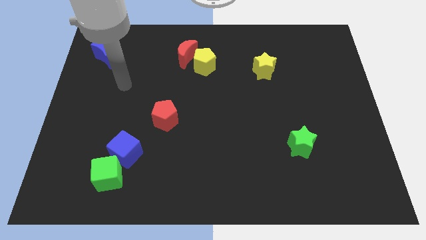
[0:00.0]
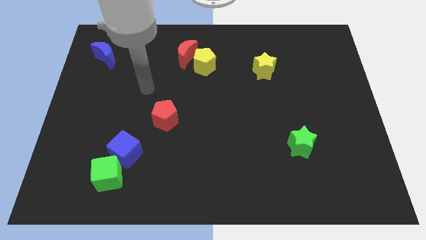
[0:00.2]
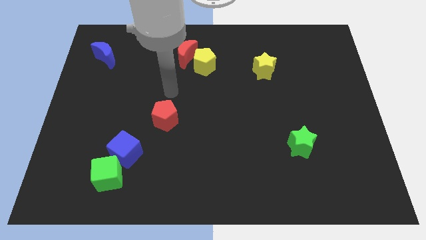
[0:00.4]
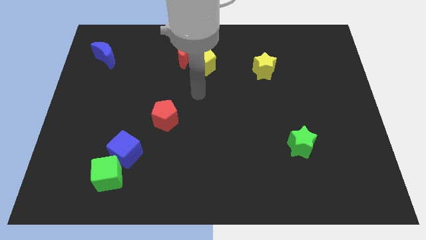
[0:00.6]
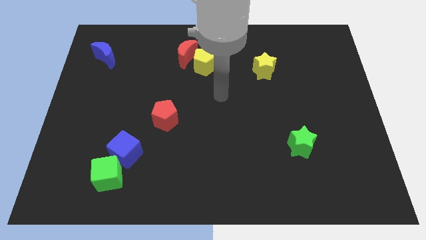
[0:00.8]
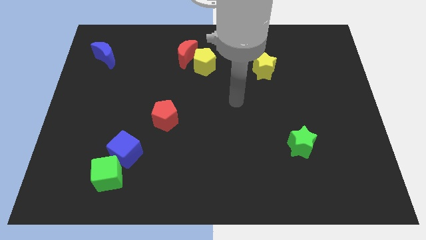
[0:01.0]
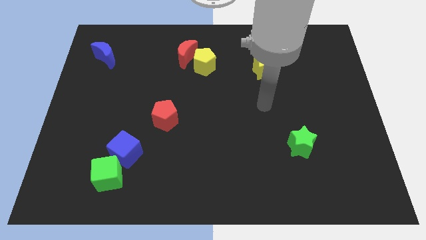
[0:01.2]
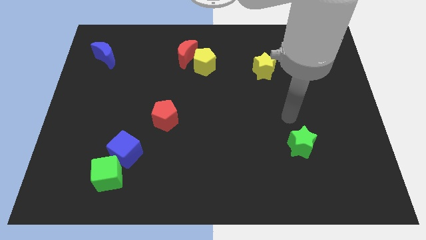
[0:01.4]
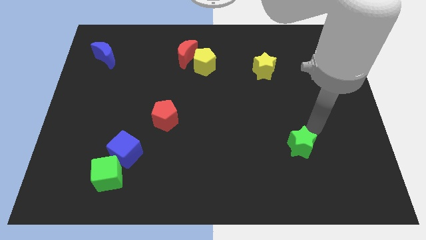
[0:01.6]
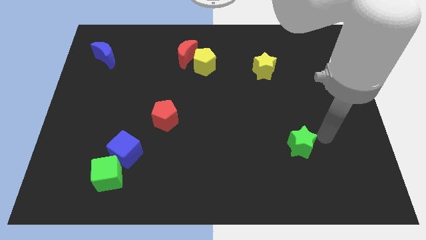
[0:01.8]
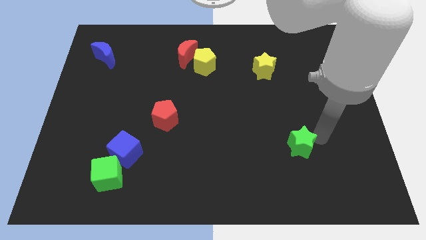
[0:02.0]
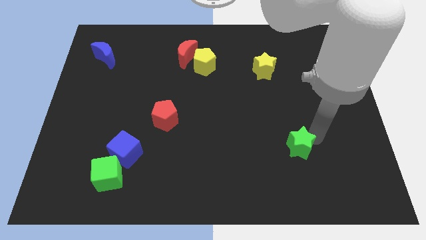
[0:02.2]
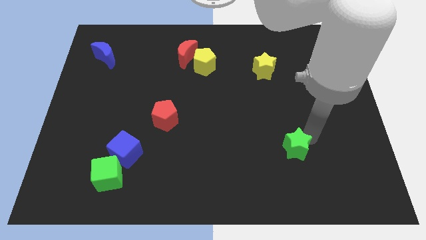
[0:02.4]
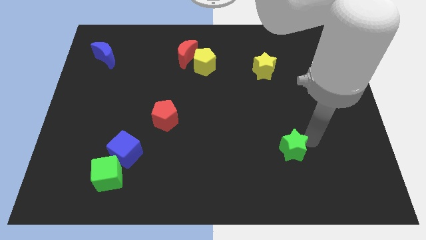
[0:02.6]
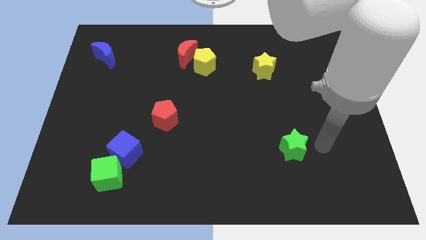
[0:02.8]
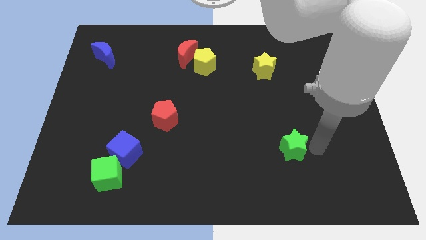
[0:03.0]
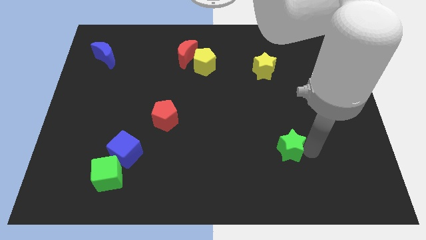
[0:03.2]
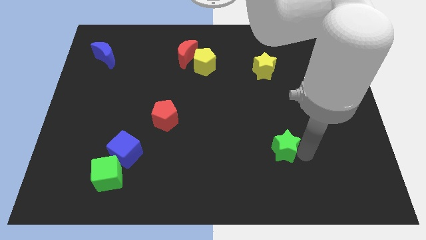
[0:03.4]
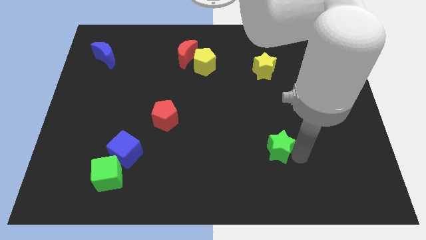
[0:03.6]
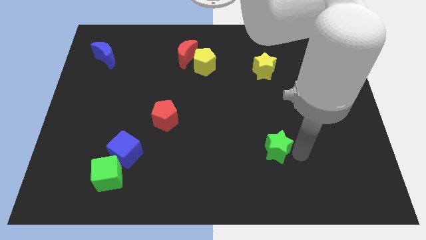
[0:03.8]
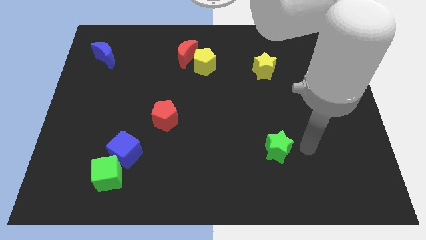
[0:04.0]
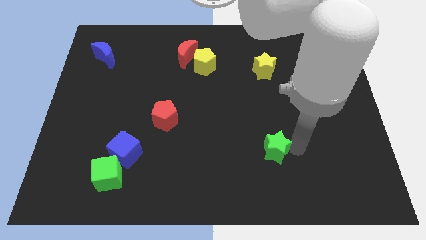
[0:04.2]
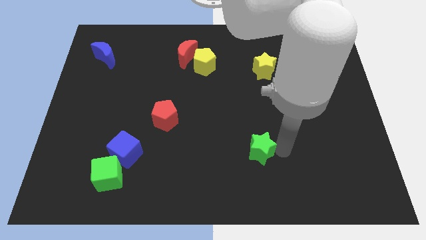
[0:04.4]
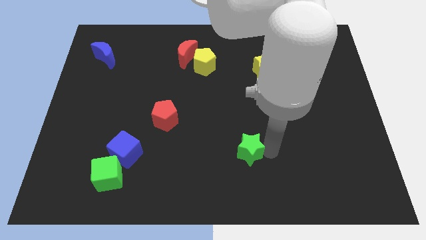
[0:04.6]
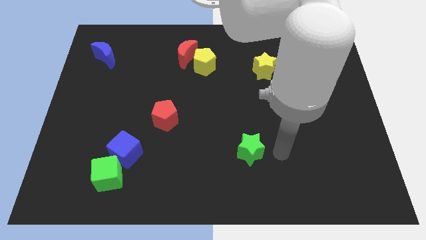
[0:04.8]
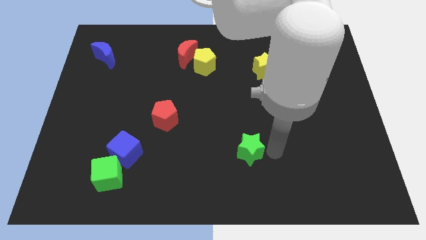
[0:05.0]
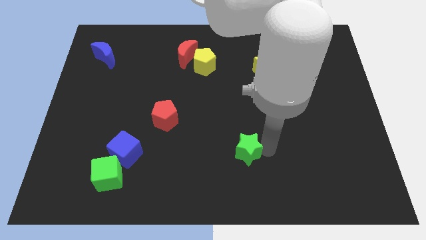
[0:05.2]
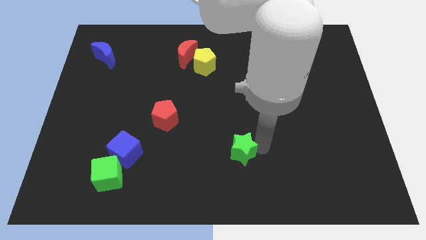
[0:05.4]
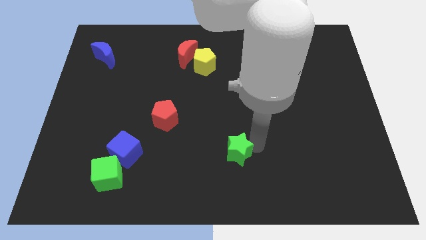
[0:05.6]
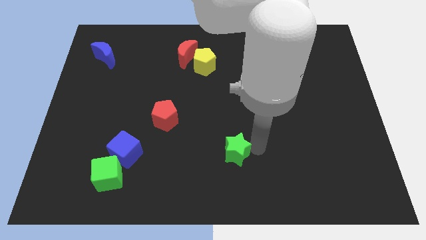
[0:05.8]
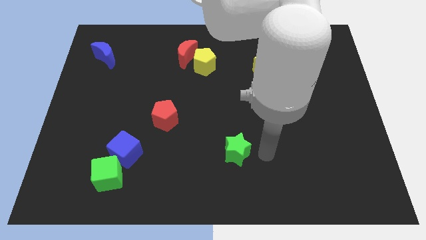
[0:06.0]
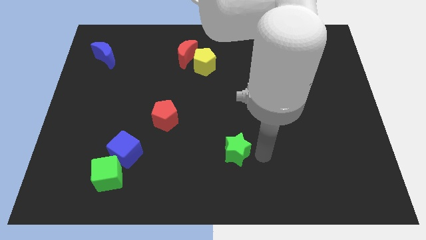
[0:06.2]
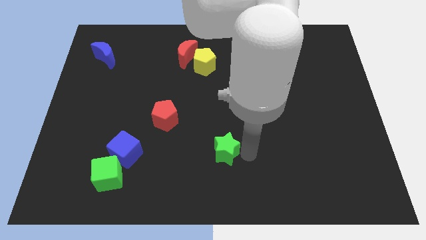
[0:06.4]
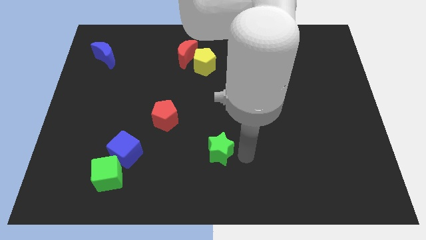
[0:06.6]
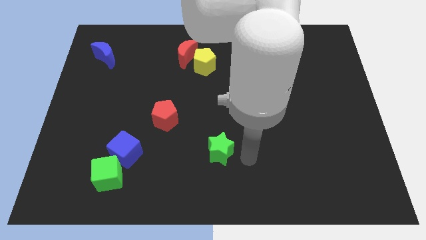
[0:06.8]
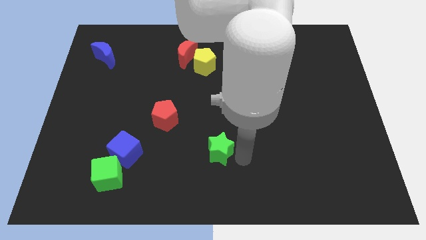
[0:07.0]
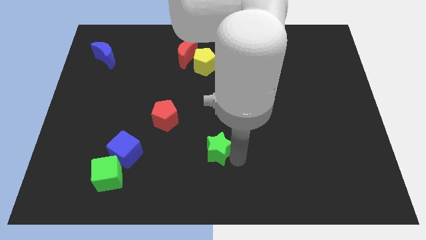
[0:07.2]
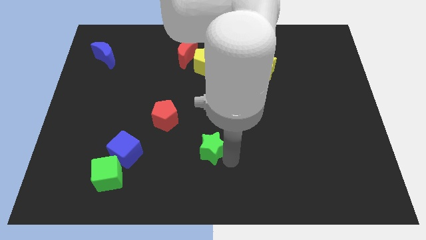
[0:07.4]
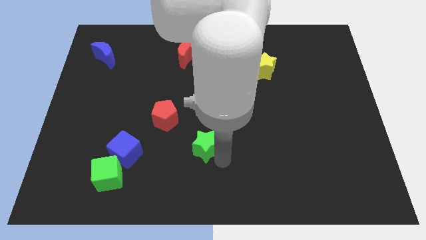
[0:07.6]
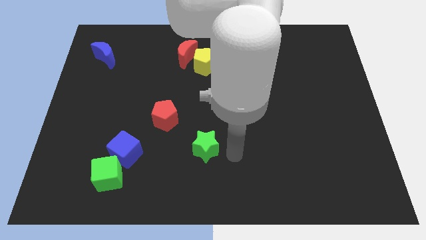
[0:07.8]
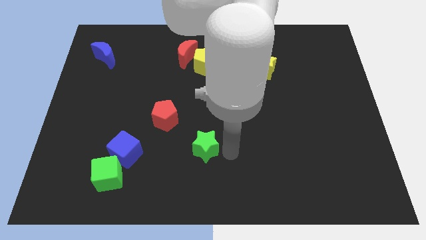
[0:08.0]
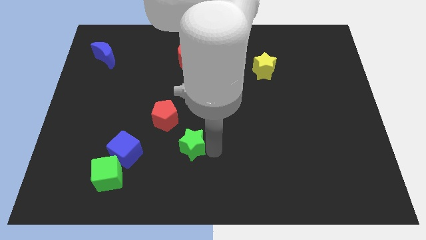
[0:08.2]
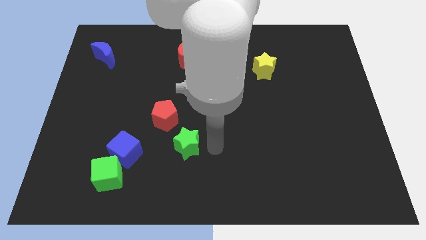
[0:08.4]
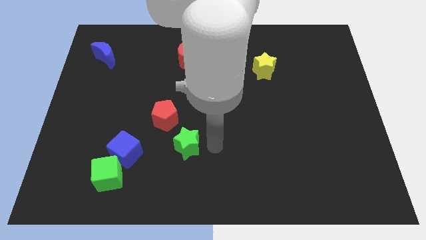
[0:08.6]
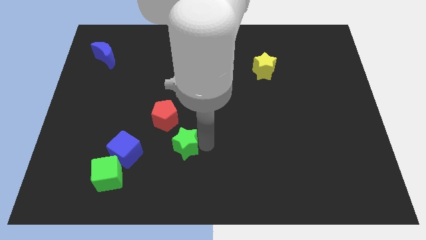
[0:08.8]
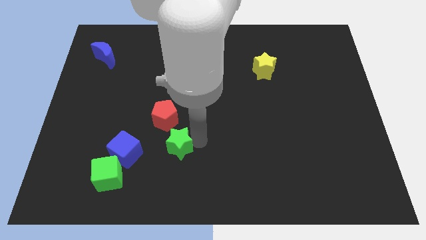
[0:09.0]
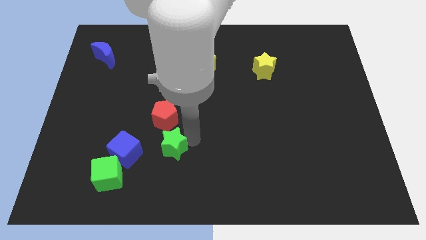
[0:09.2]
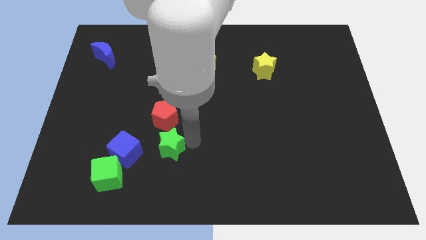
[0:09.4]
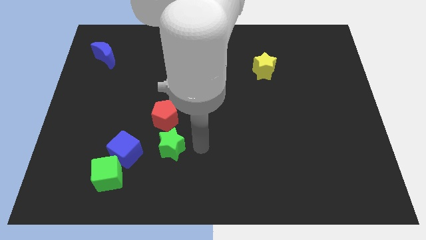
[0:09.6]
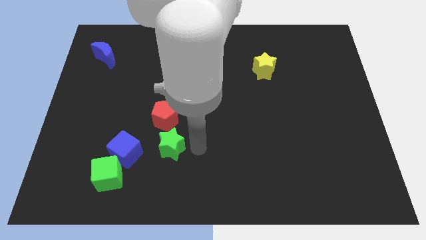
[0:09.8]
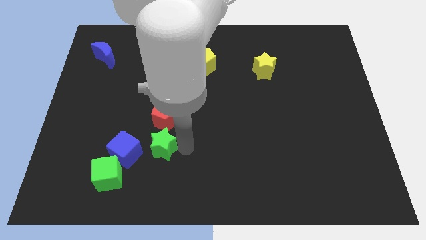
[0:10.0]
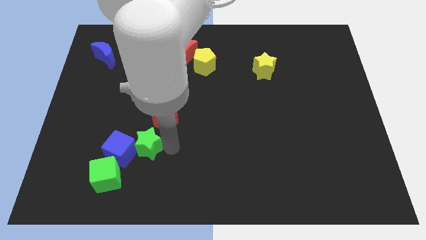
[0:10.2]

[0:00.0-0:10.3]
move the green star next to the blue cube

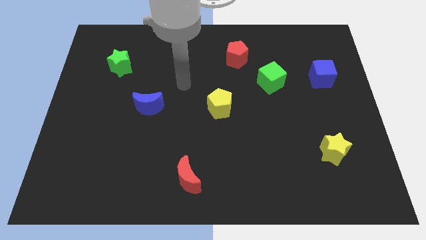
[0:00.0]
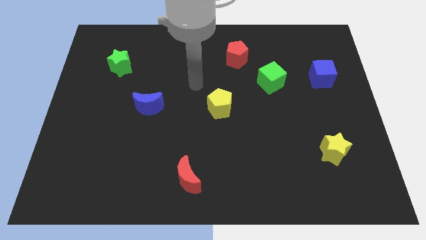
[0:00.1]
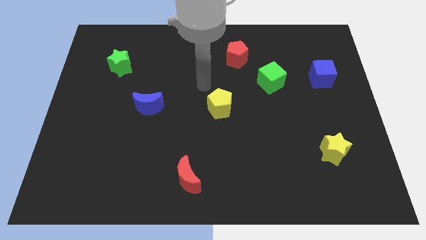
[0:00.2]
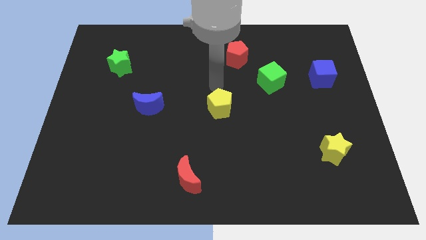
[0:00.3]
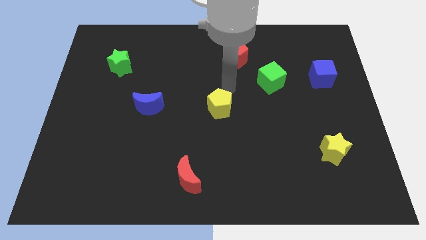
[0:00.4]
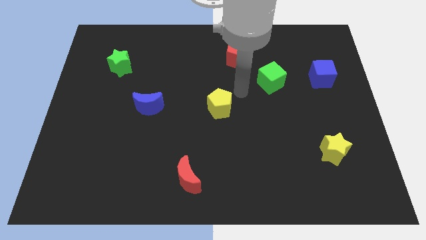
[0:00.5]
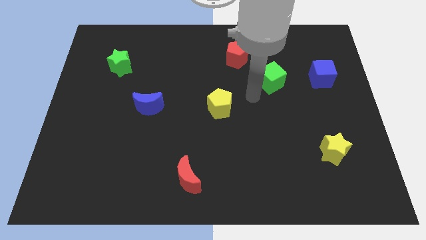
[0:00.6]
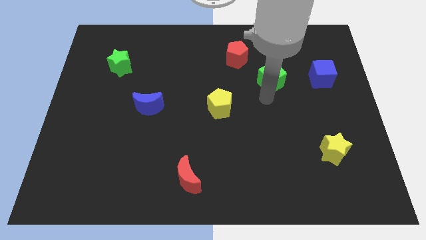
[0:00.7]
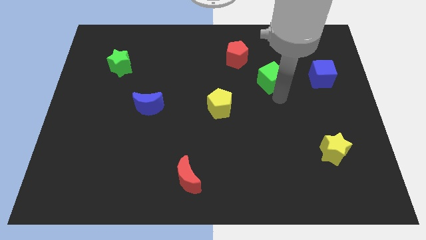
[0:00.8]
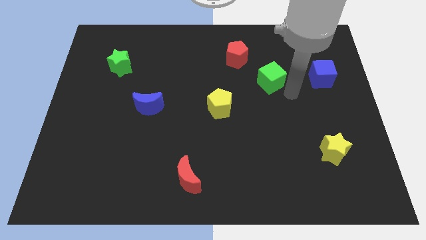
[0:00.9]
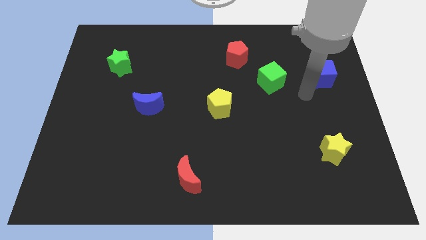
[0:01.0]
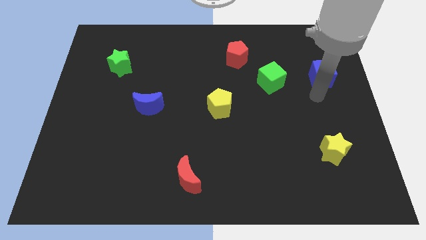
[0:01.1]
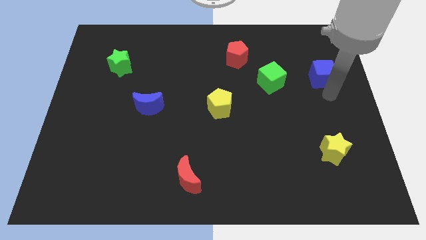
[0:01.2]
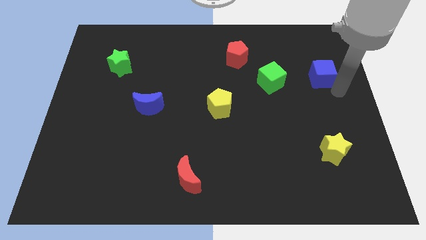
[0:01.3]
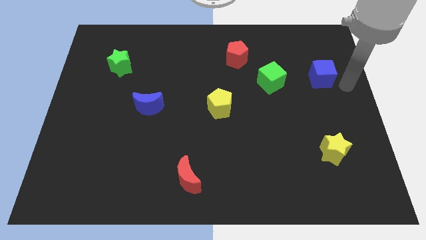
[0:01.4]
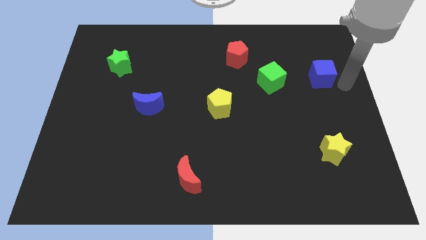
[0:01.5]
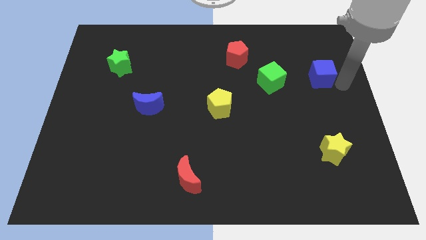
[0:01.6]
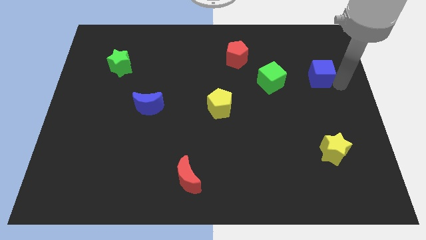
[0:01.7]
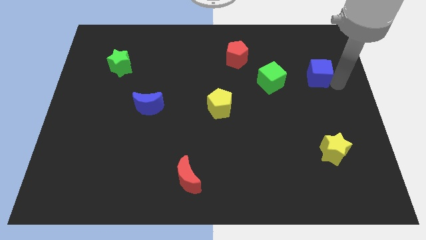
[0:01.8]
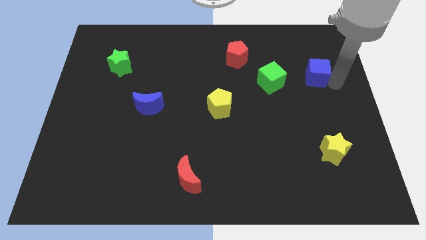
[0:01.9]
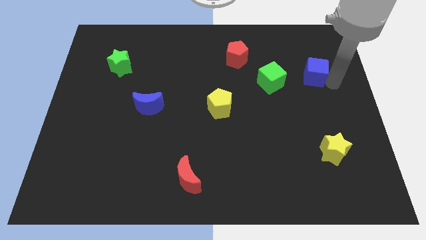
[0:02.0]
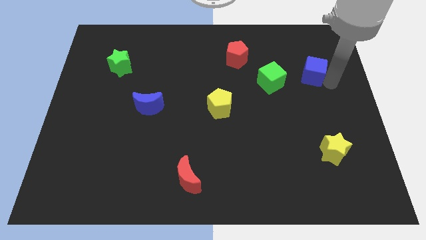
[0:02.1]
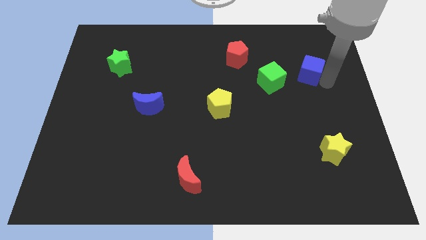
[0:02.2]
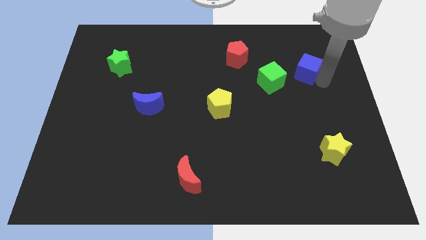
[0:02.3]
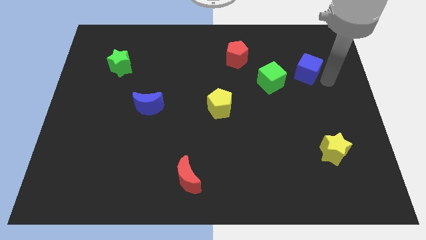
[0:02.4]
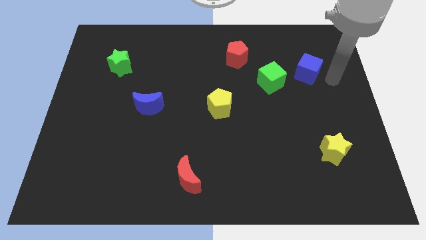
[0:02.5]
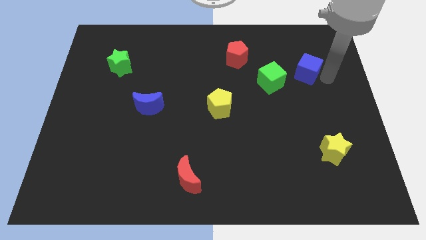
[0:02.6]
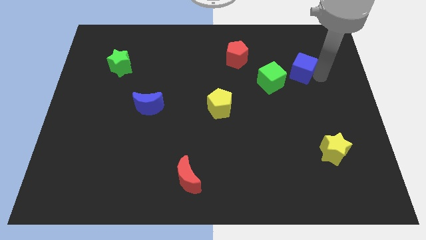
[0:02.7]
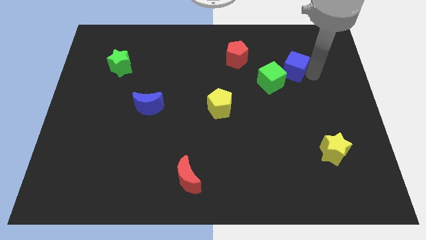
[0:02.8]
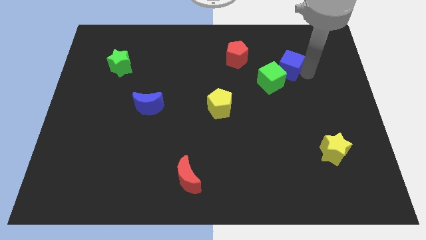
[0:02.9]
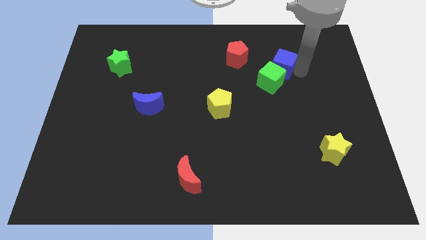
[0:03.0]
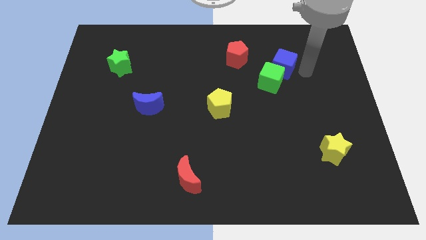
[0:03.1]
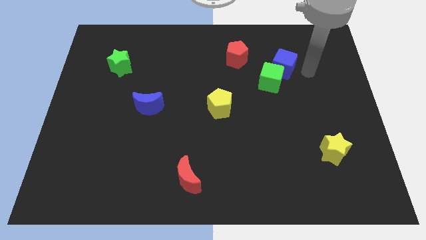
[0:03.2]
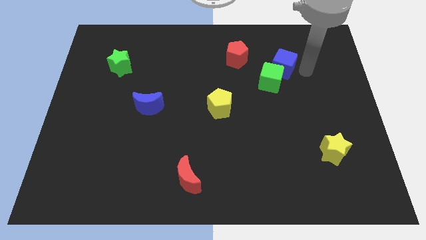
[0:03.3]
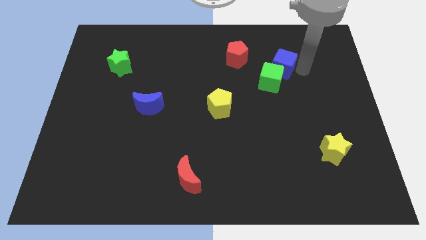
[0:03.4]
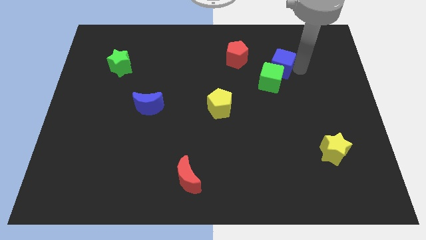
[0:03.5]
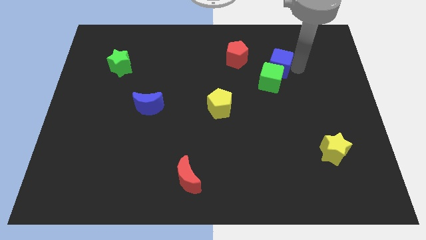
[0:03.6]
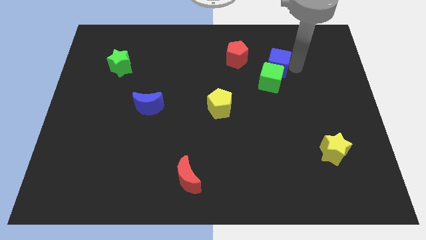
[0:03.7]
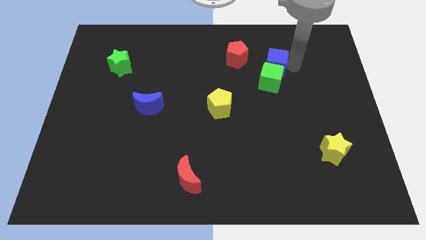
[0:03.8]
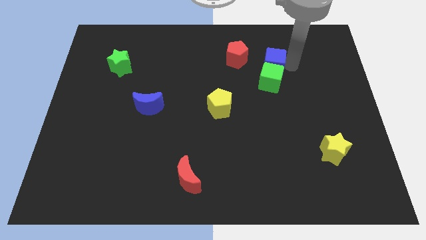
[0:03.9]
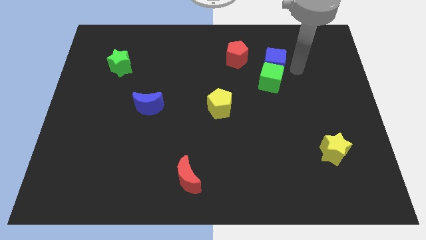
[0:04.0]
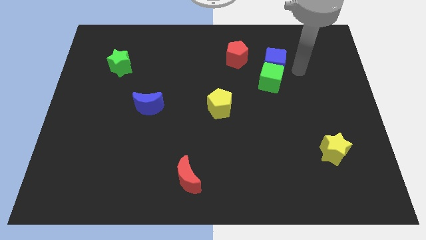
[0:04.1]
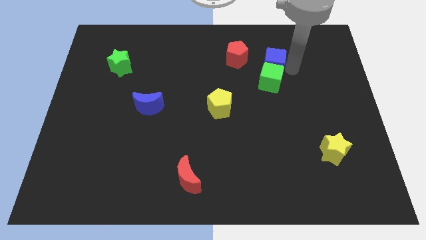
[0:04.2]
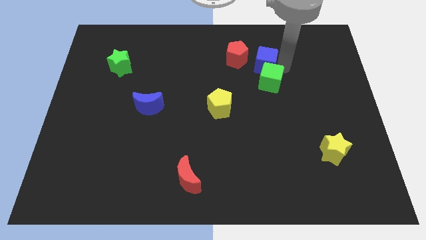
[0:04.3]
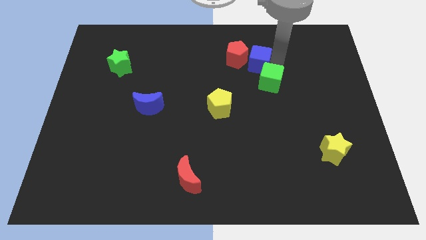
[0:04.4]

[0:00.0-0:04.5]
put the blue cube to the red pentagon
